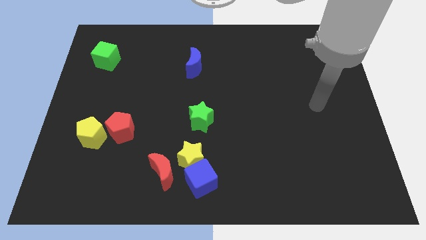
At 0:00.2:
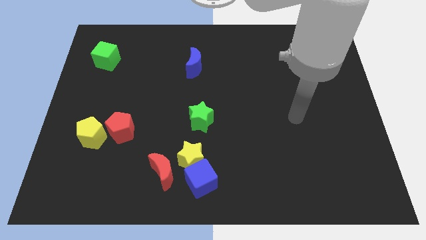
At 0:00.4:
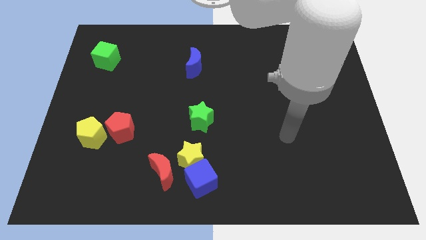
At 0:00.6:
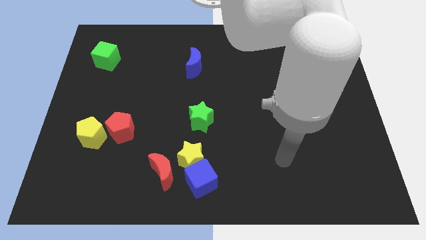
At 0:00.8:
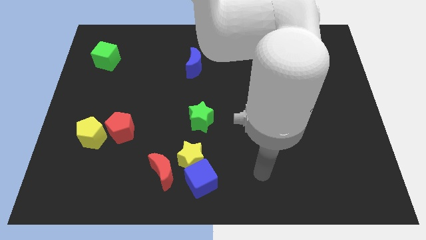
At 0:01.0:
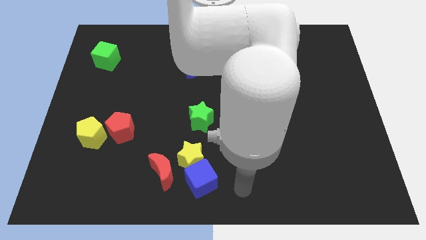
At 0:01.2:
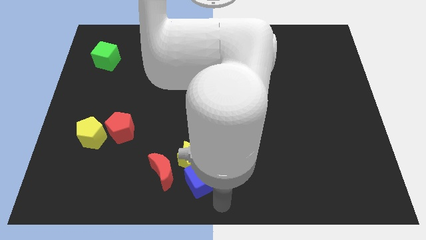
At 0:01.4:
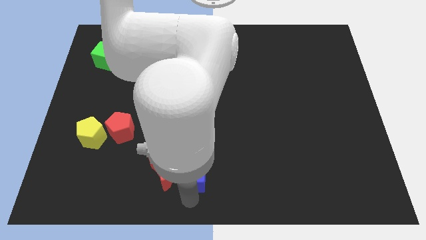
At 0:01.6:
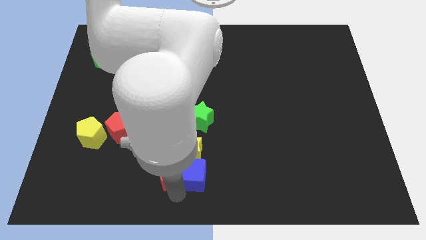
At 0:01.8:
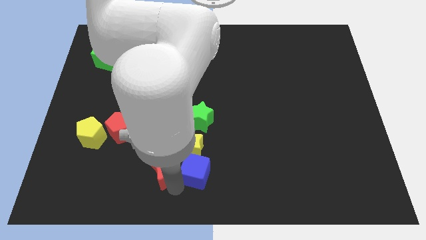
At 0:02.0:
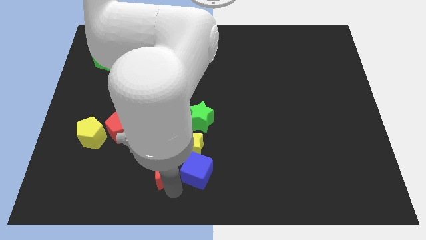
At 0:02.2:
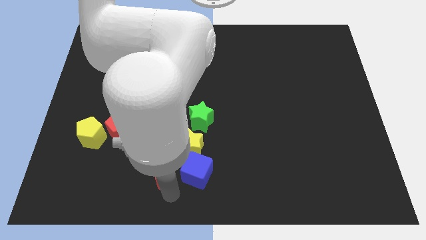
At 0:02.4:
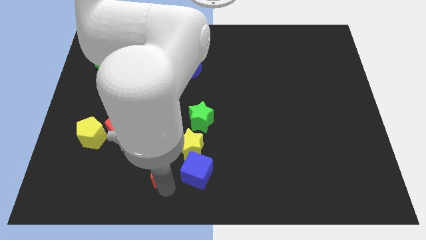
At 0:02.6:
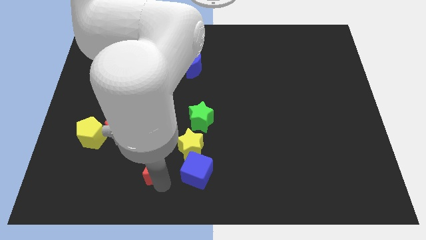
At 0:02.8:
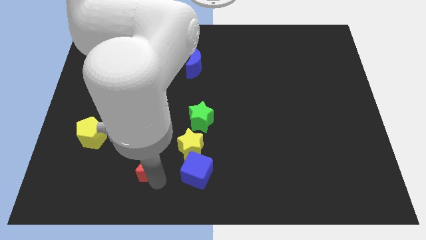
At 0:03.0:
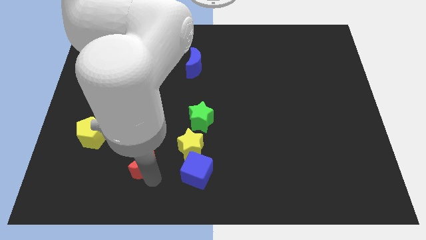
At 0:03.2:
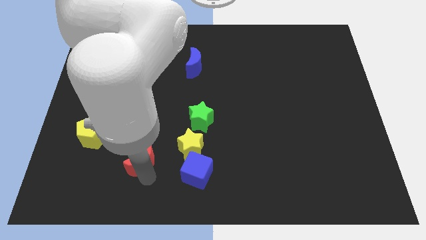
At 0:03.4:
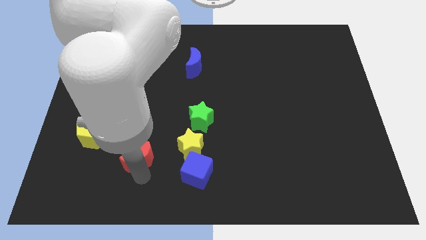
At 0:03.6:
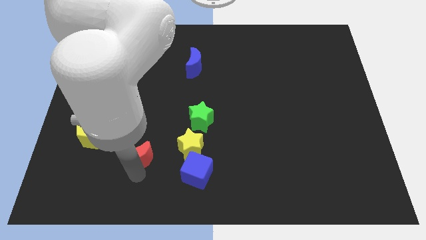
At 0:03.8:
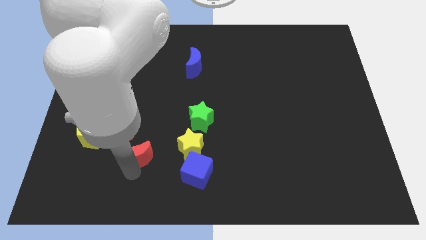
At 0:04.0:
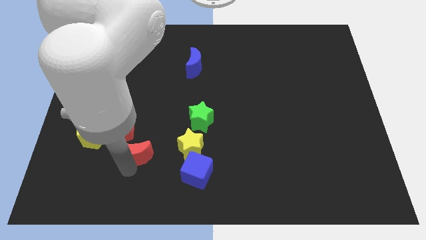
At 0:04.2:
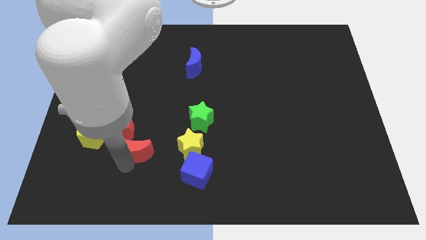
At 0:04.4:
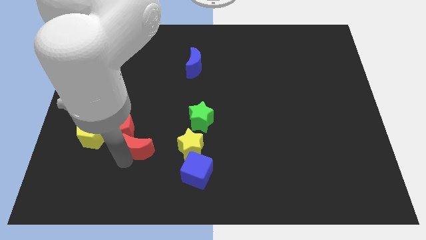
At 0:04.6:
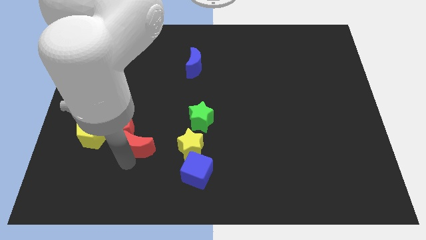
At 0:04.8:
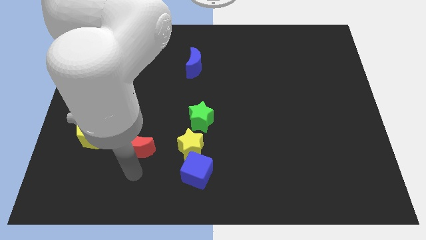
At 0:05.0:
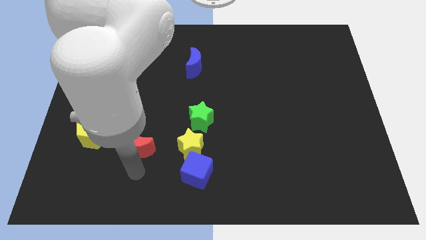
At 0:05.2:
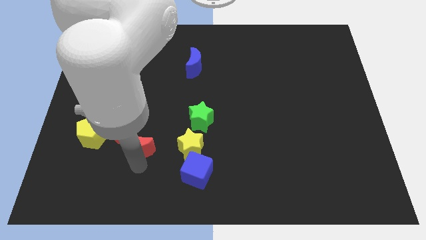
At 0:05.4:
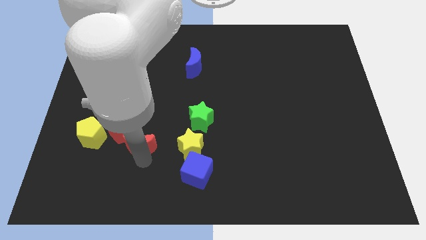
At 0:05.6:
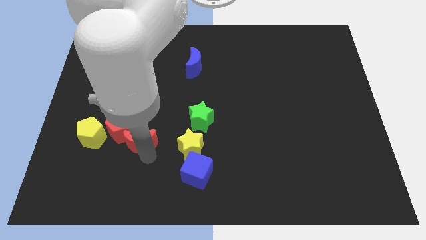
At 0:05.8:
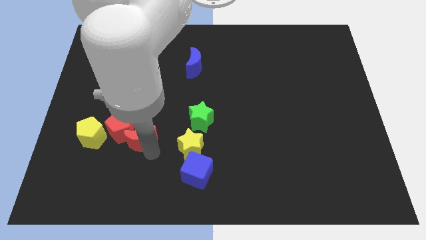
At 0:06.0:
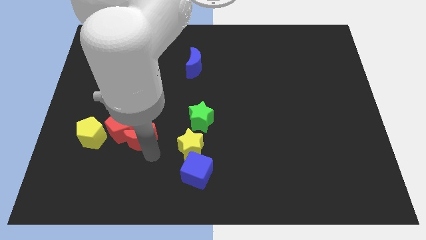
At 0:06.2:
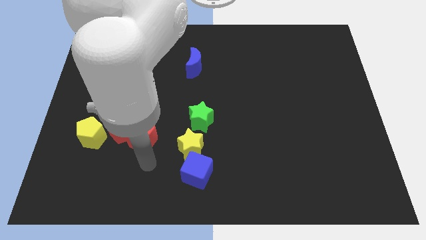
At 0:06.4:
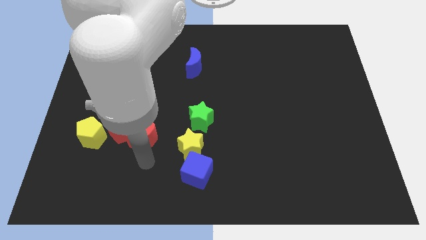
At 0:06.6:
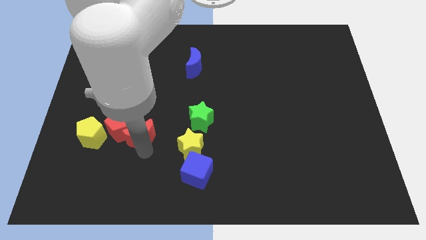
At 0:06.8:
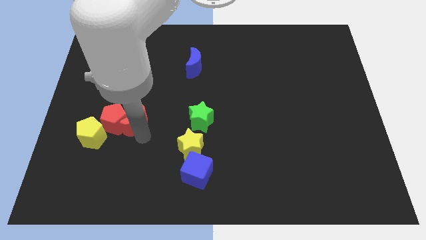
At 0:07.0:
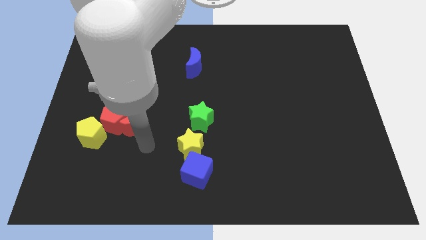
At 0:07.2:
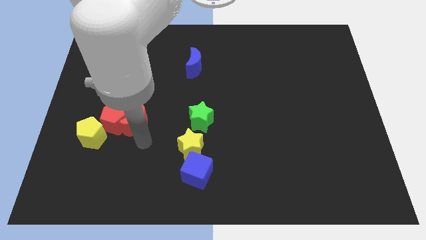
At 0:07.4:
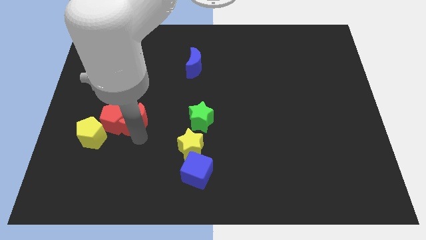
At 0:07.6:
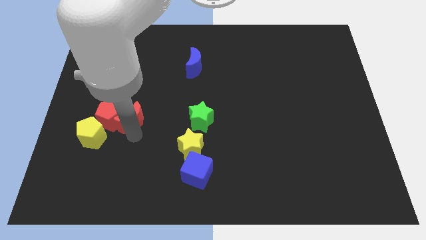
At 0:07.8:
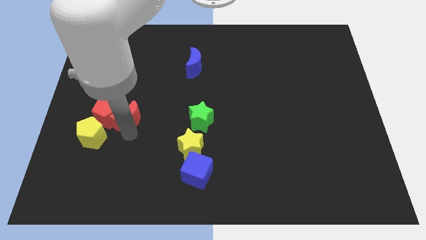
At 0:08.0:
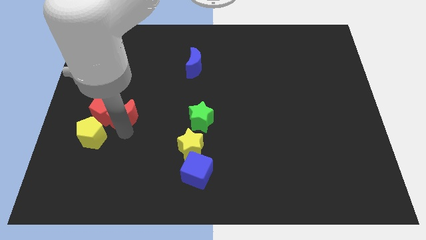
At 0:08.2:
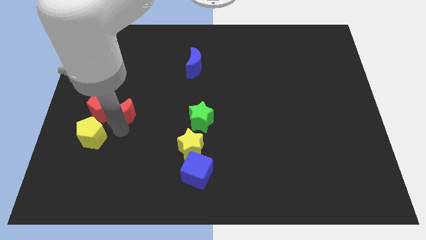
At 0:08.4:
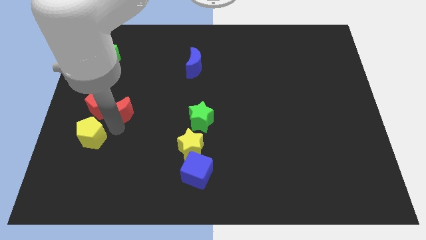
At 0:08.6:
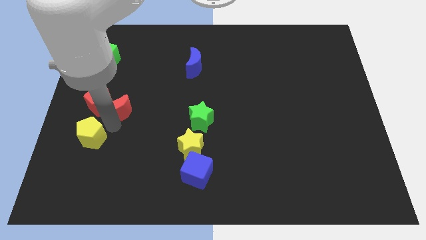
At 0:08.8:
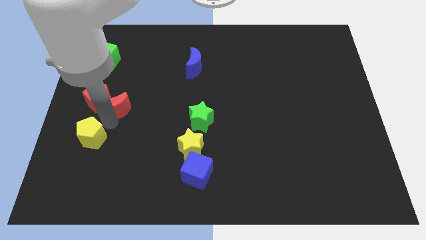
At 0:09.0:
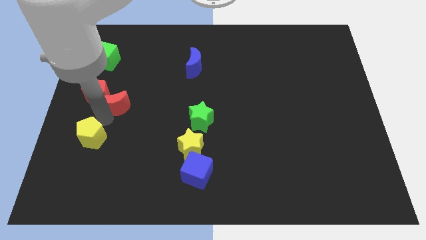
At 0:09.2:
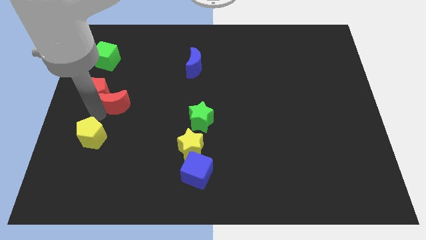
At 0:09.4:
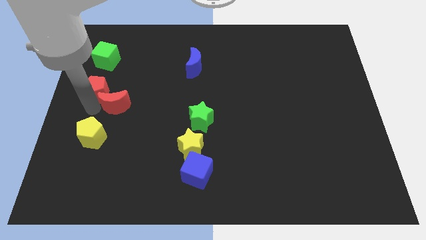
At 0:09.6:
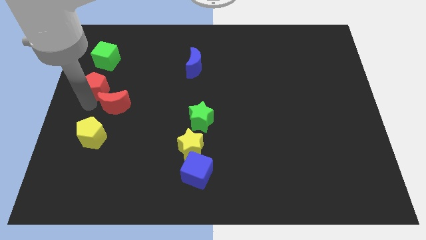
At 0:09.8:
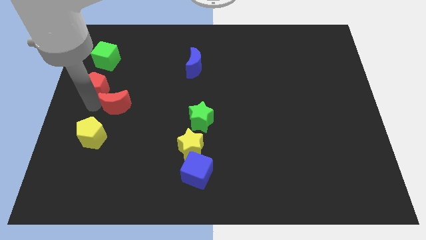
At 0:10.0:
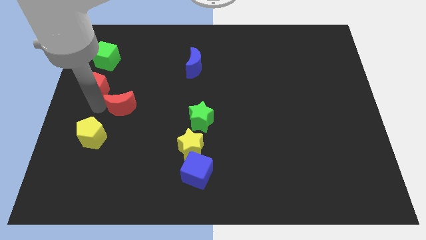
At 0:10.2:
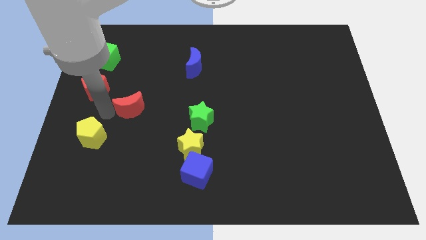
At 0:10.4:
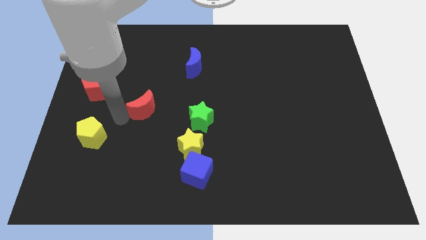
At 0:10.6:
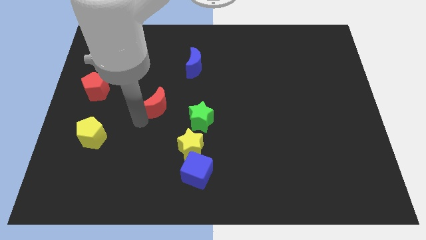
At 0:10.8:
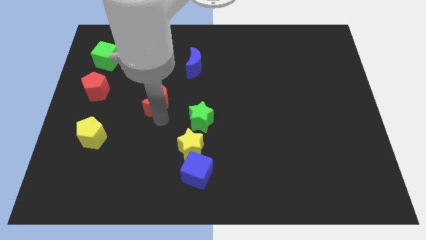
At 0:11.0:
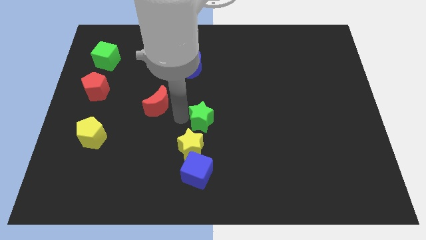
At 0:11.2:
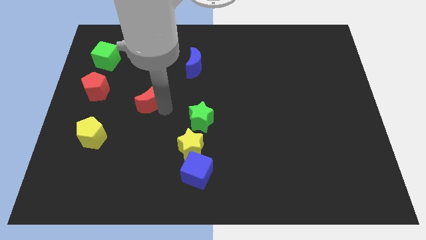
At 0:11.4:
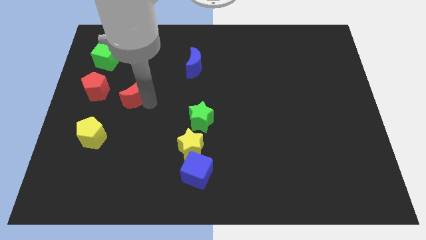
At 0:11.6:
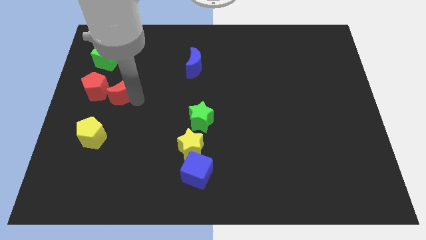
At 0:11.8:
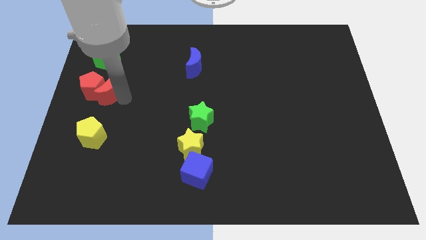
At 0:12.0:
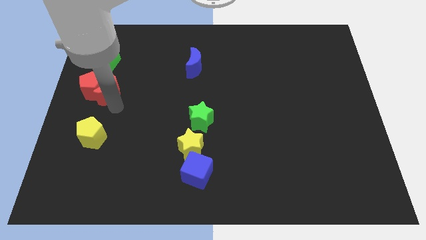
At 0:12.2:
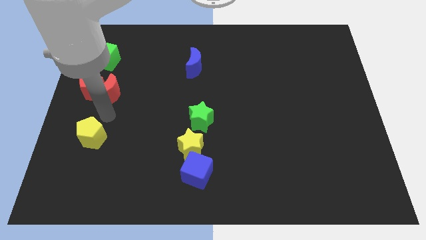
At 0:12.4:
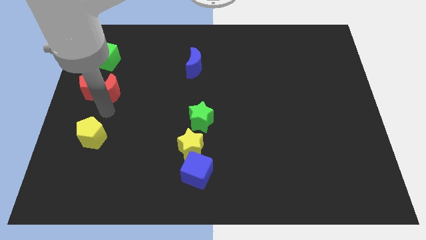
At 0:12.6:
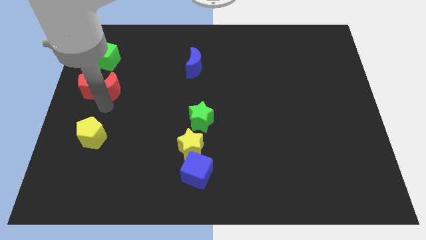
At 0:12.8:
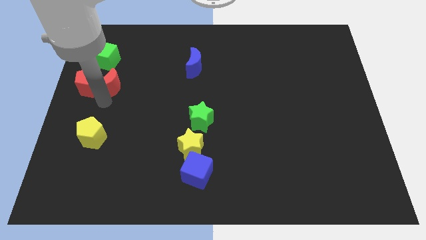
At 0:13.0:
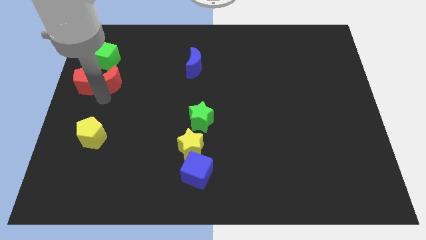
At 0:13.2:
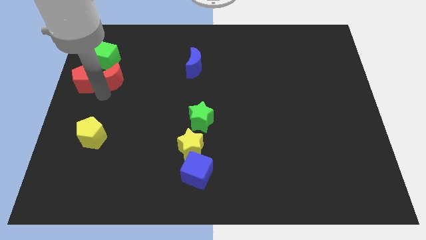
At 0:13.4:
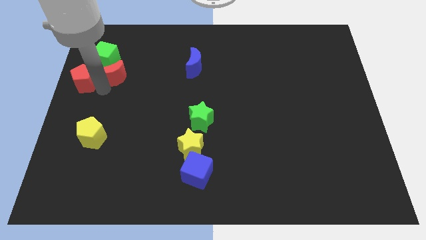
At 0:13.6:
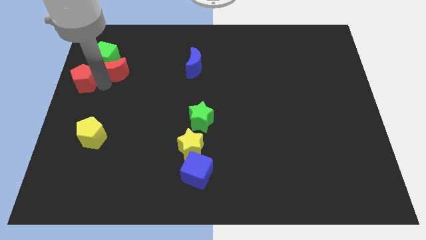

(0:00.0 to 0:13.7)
put the red moon to the green cube

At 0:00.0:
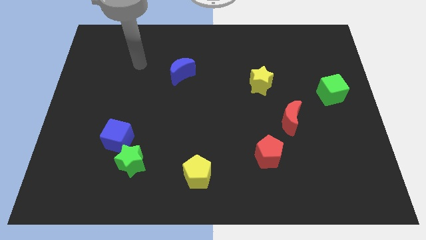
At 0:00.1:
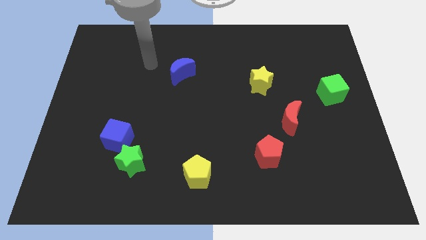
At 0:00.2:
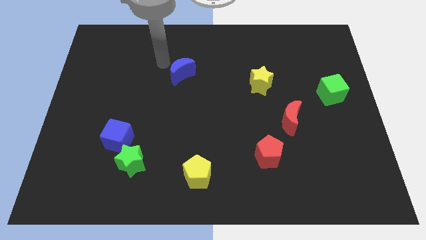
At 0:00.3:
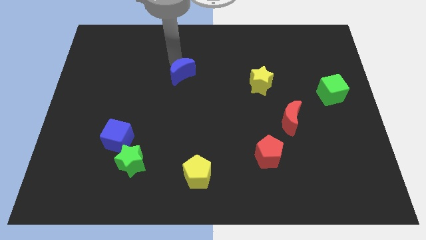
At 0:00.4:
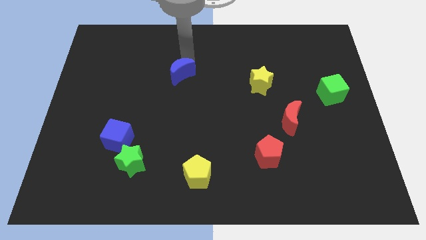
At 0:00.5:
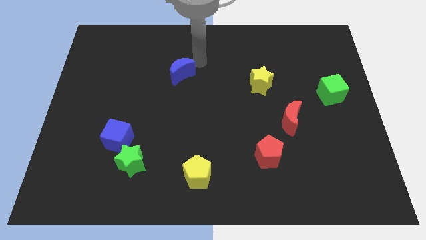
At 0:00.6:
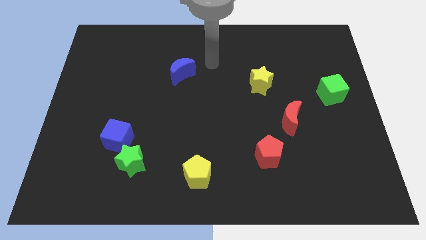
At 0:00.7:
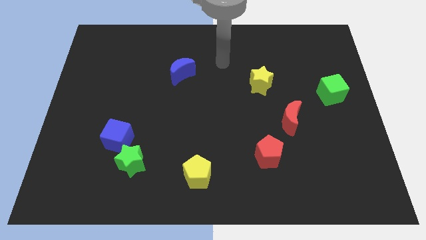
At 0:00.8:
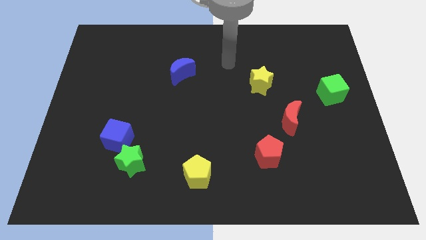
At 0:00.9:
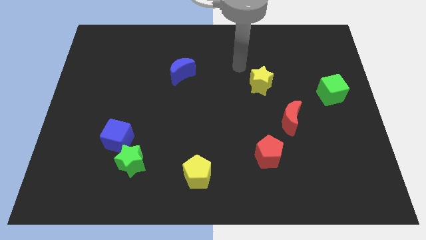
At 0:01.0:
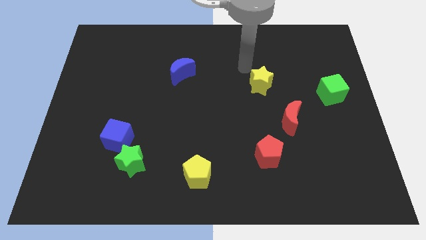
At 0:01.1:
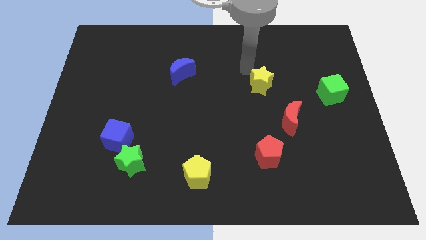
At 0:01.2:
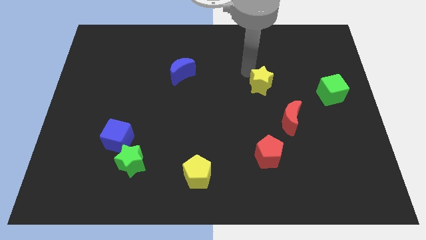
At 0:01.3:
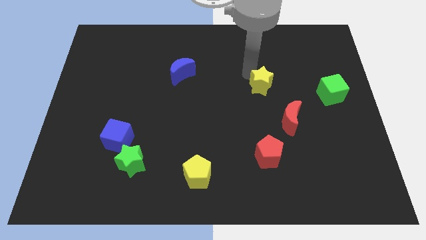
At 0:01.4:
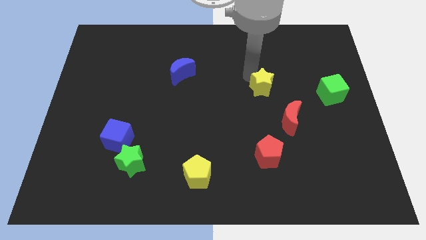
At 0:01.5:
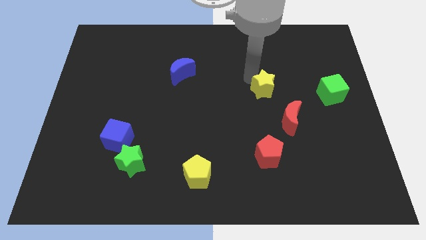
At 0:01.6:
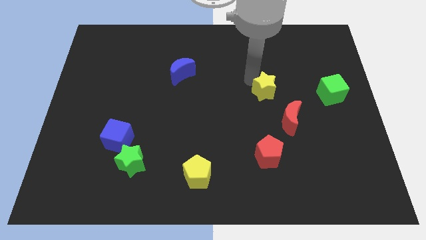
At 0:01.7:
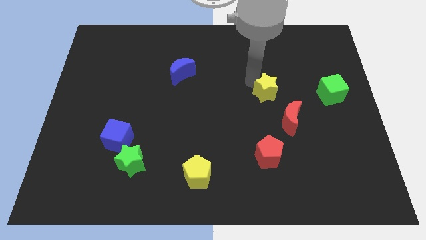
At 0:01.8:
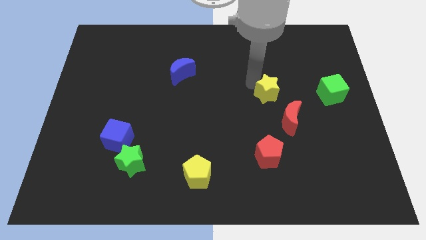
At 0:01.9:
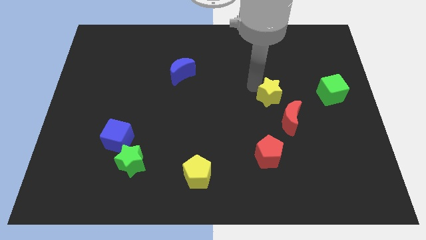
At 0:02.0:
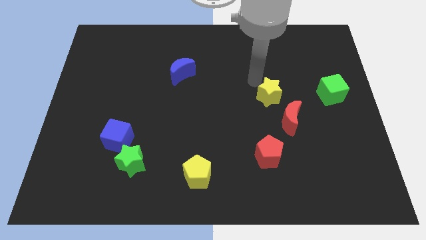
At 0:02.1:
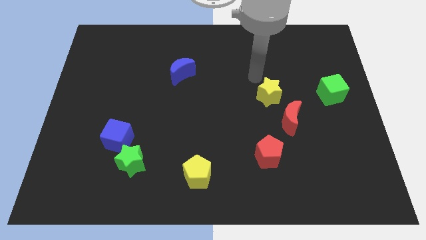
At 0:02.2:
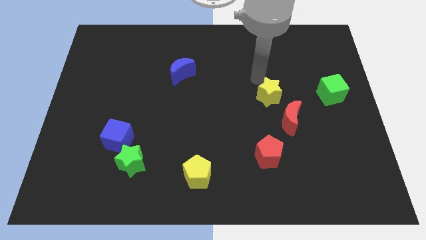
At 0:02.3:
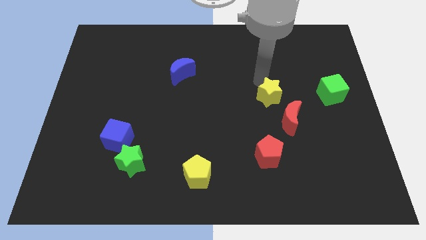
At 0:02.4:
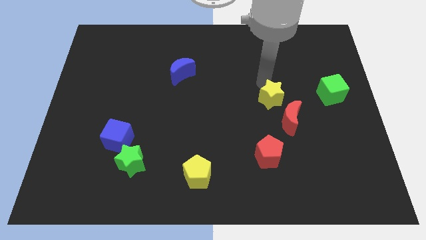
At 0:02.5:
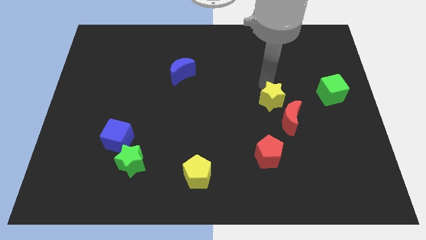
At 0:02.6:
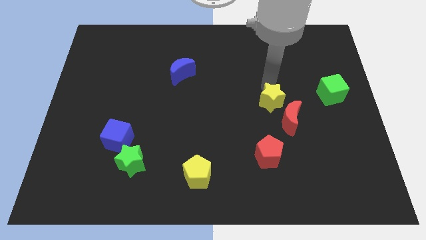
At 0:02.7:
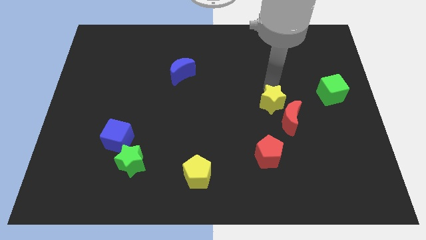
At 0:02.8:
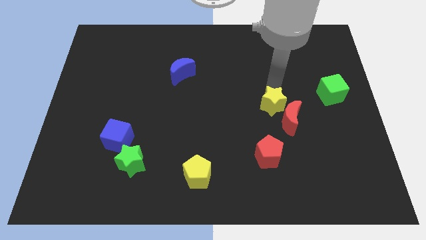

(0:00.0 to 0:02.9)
push the yellow star to the red moon
